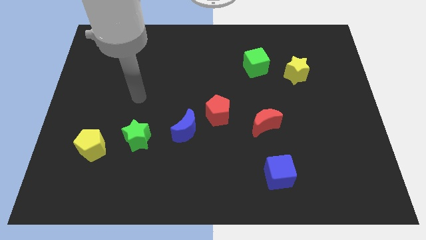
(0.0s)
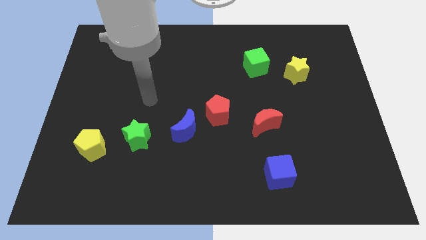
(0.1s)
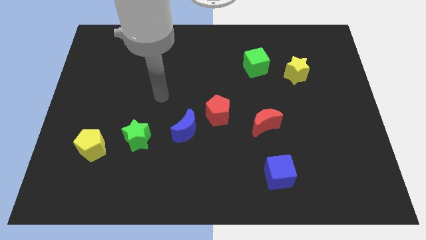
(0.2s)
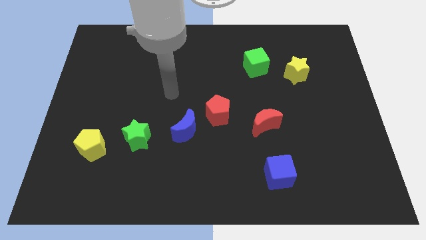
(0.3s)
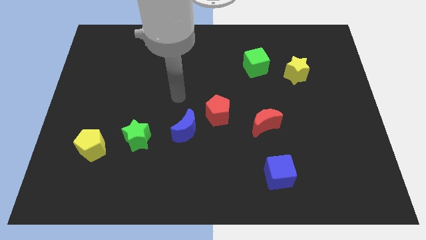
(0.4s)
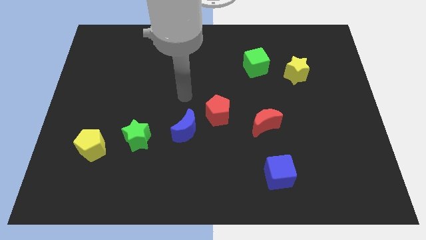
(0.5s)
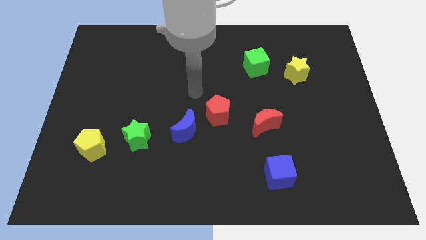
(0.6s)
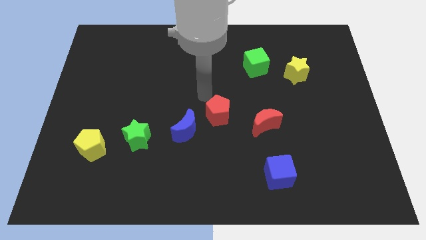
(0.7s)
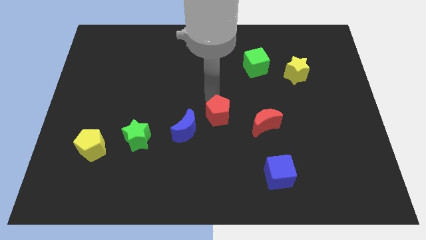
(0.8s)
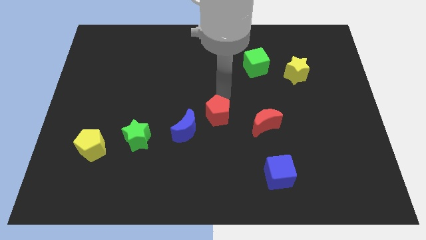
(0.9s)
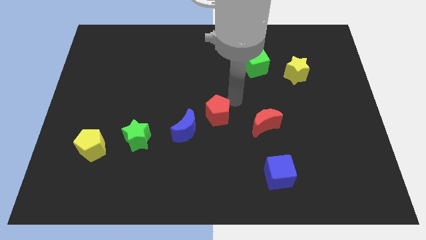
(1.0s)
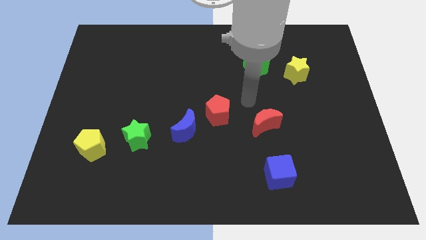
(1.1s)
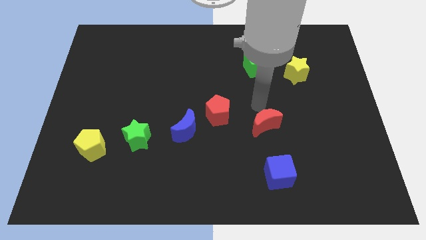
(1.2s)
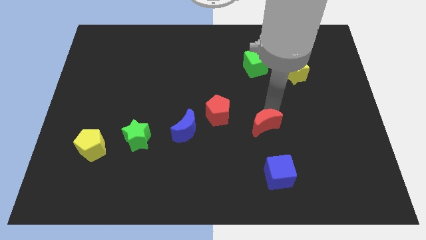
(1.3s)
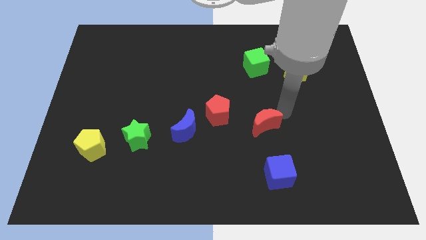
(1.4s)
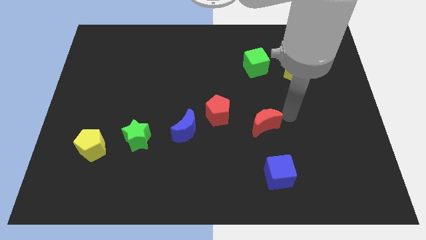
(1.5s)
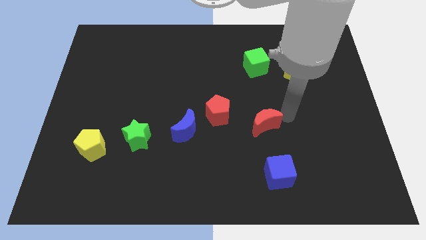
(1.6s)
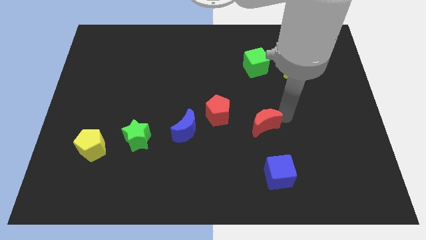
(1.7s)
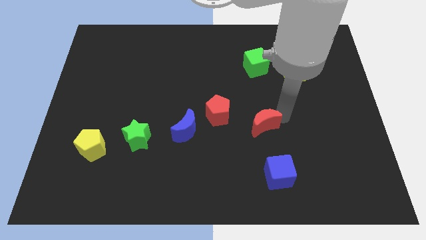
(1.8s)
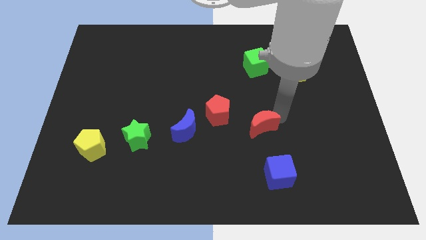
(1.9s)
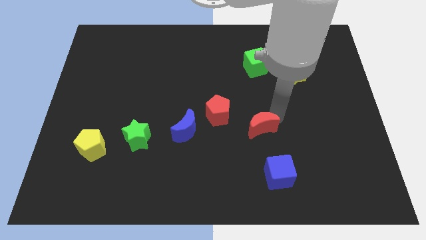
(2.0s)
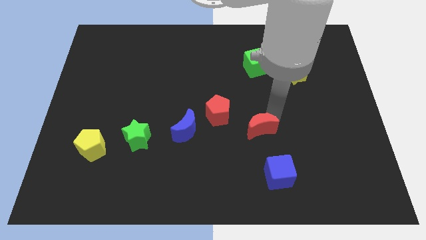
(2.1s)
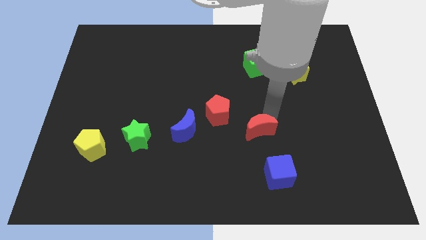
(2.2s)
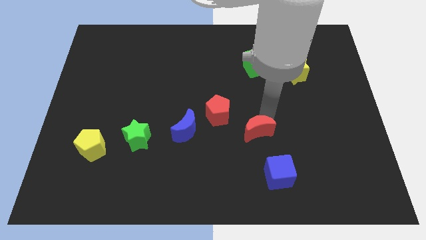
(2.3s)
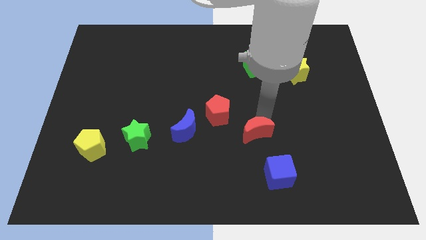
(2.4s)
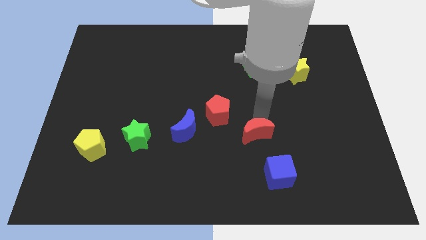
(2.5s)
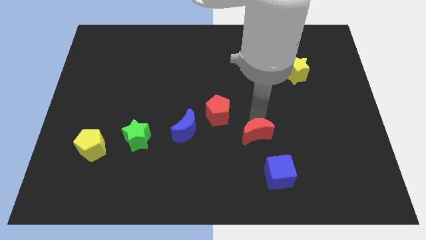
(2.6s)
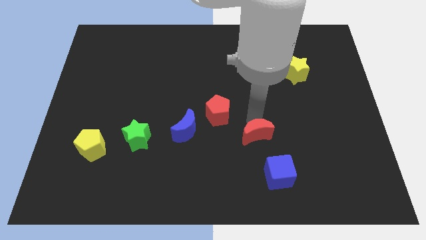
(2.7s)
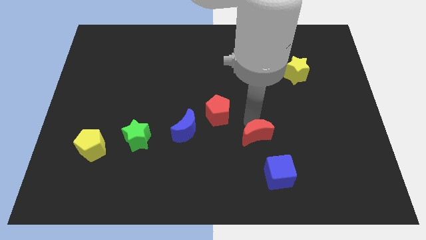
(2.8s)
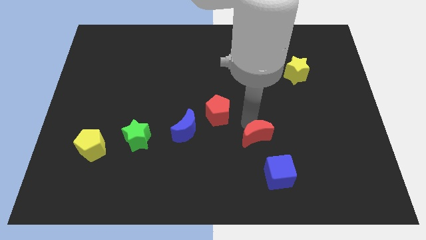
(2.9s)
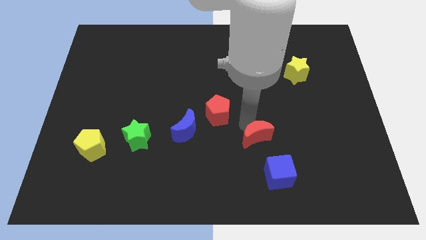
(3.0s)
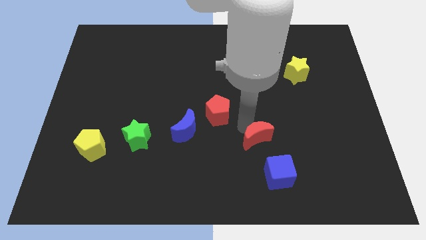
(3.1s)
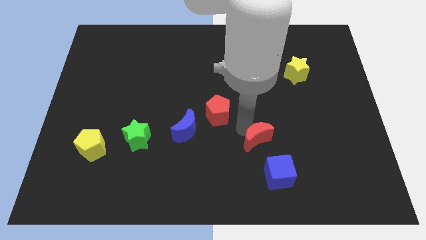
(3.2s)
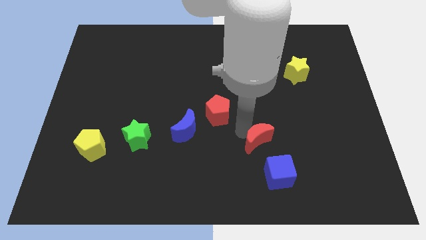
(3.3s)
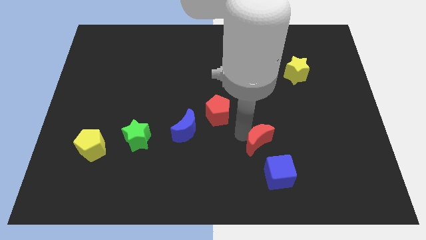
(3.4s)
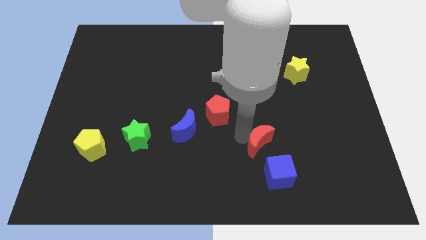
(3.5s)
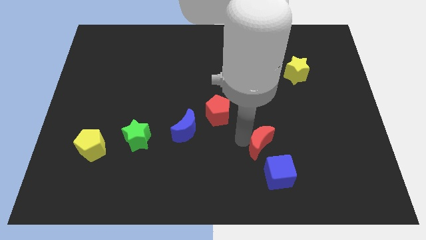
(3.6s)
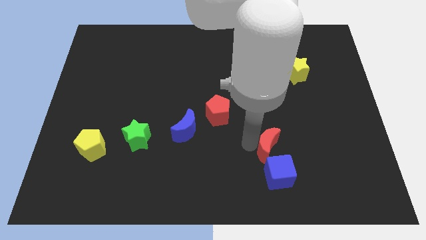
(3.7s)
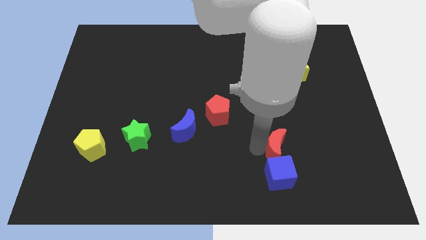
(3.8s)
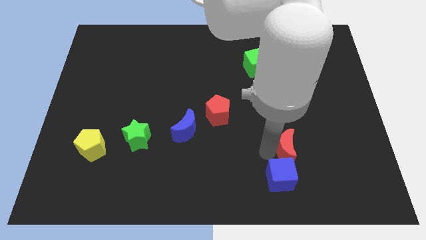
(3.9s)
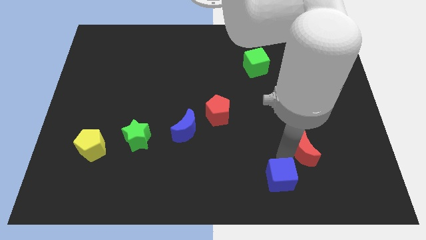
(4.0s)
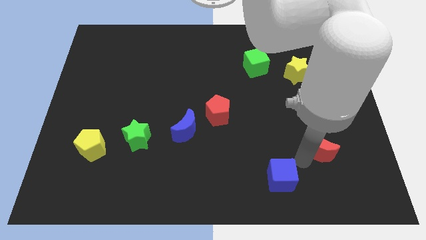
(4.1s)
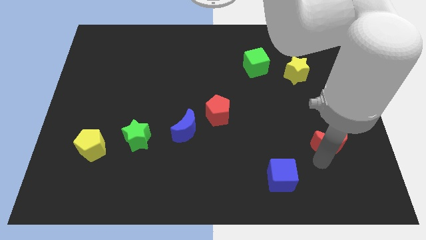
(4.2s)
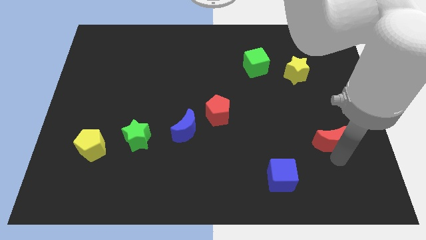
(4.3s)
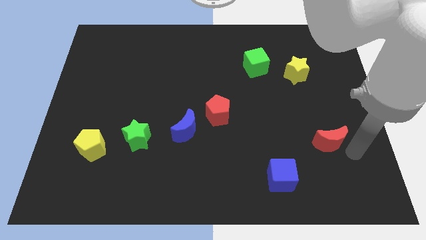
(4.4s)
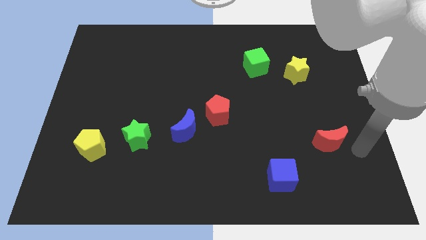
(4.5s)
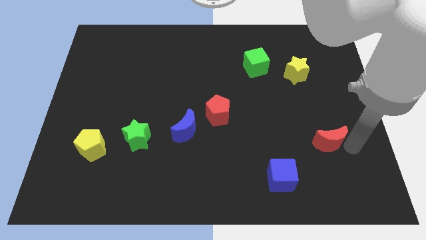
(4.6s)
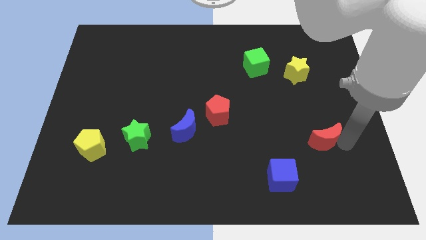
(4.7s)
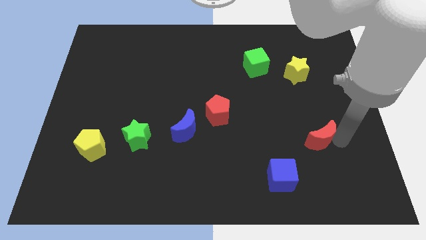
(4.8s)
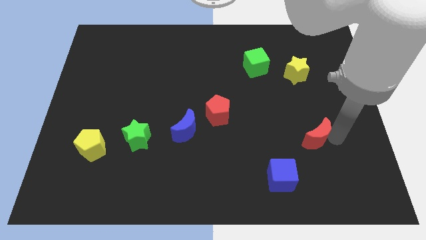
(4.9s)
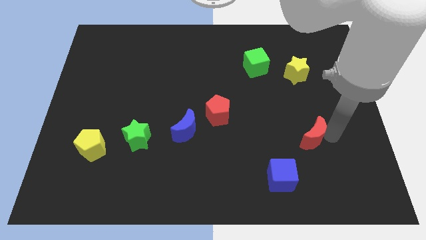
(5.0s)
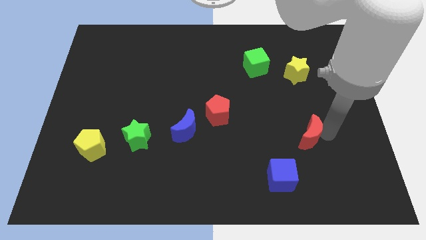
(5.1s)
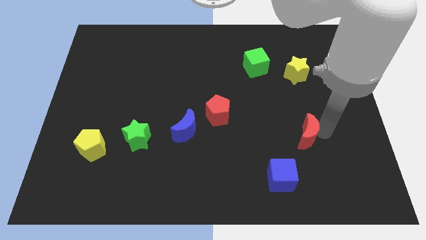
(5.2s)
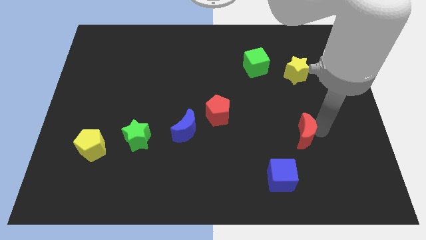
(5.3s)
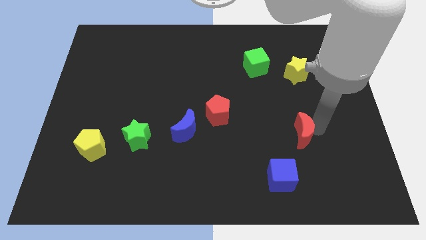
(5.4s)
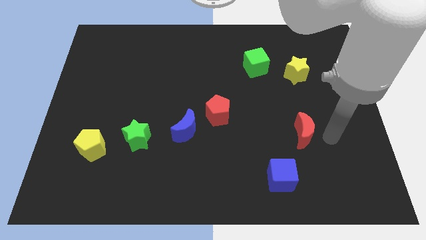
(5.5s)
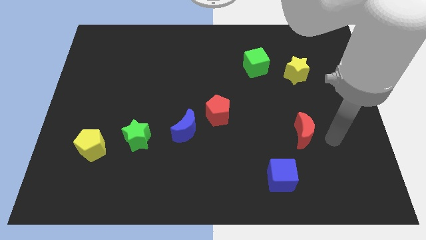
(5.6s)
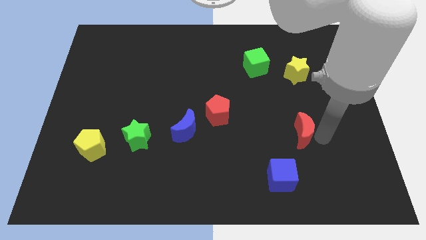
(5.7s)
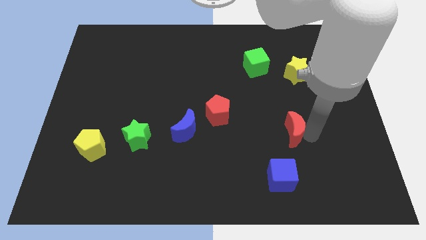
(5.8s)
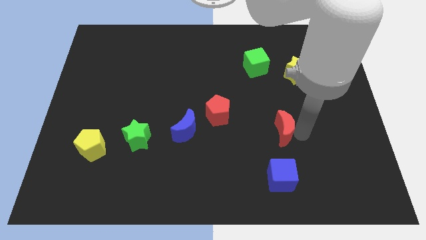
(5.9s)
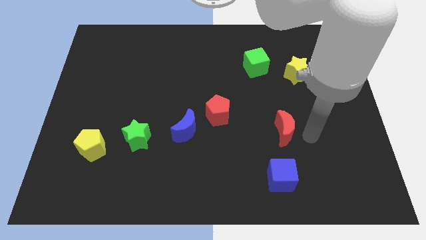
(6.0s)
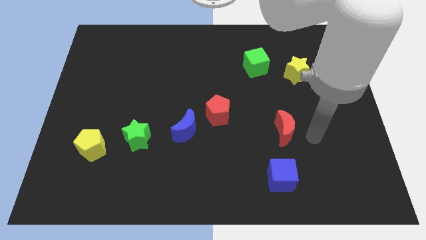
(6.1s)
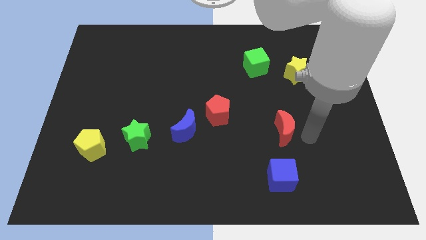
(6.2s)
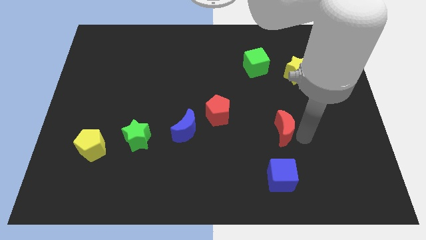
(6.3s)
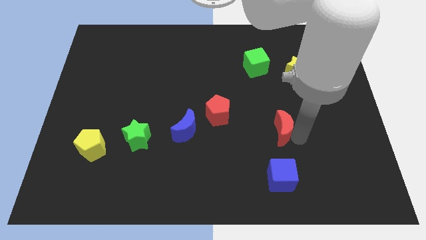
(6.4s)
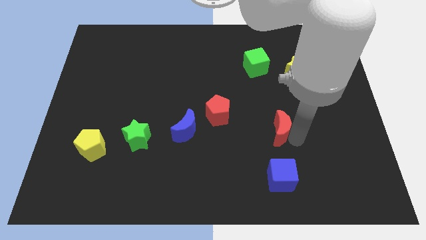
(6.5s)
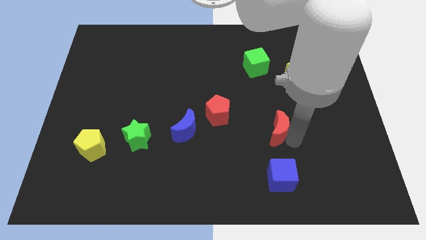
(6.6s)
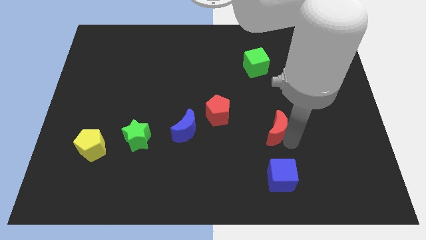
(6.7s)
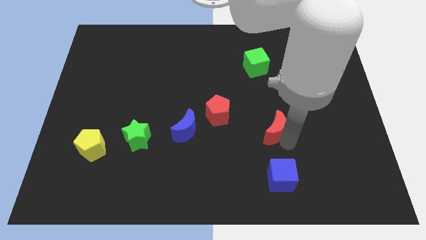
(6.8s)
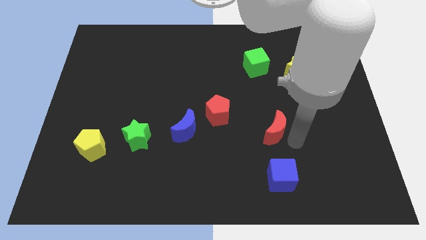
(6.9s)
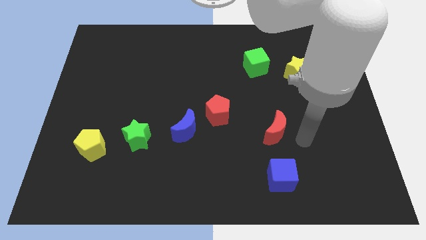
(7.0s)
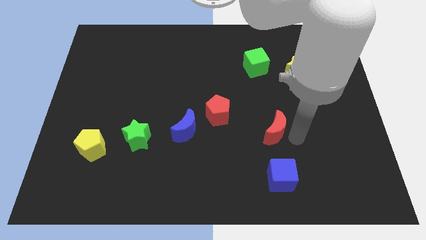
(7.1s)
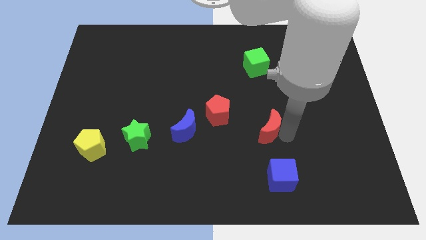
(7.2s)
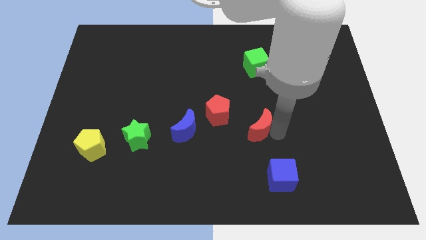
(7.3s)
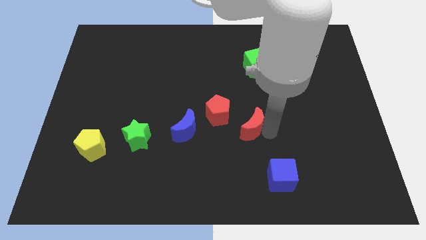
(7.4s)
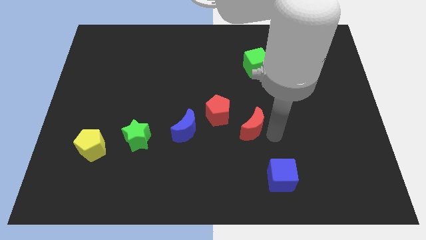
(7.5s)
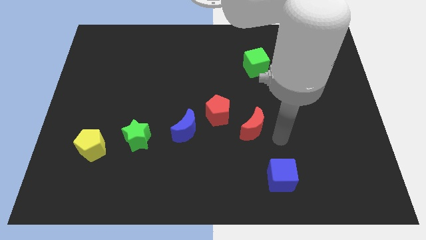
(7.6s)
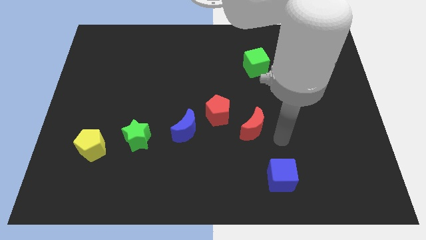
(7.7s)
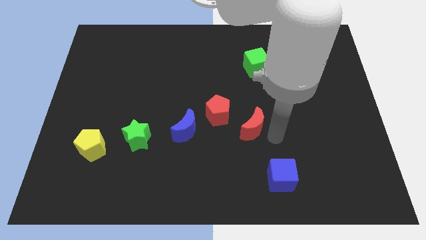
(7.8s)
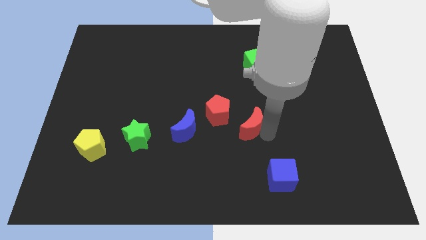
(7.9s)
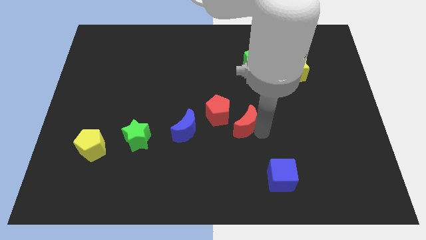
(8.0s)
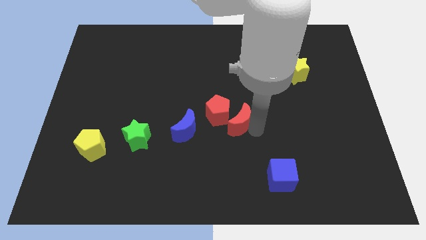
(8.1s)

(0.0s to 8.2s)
slide the red moon close to the red pentagon
